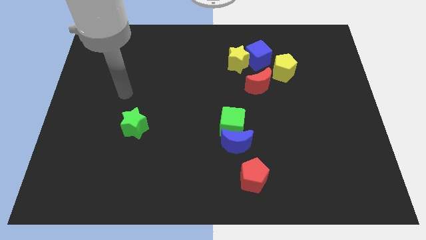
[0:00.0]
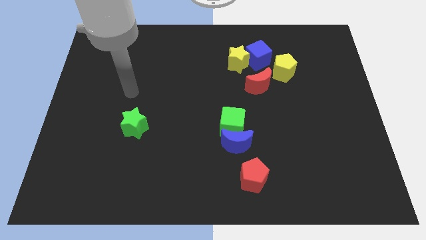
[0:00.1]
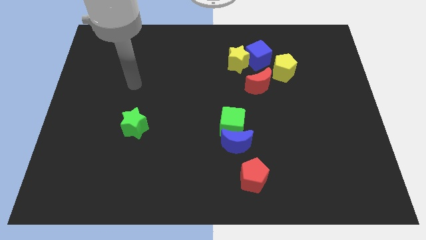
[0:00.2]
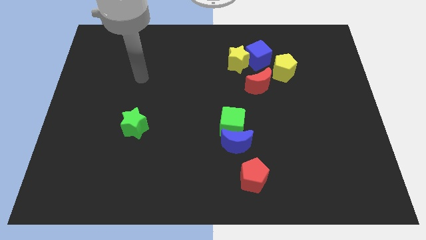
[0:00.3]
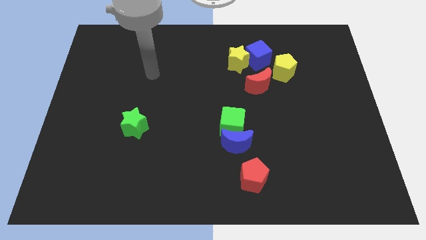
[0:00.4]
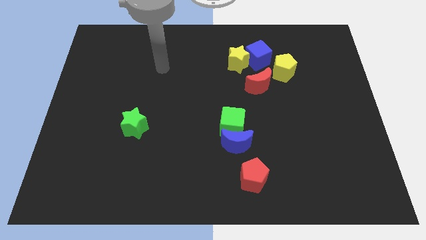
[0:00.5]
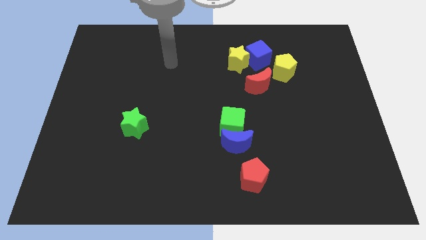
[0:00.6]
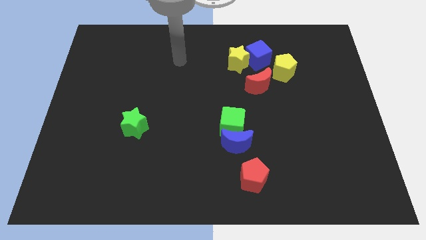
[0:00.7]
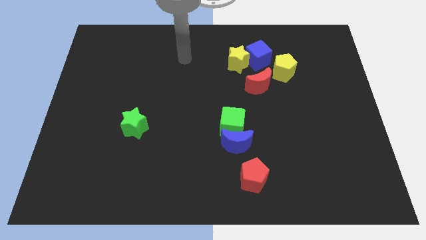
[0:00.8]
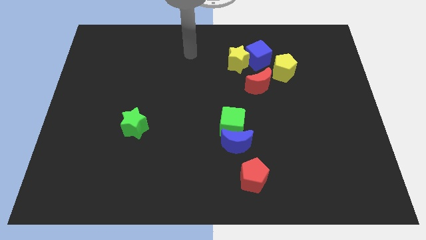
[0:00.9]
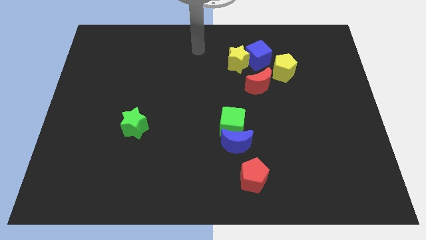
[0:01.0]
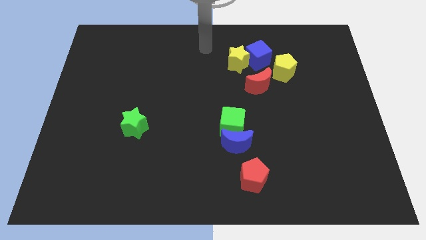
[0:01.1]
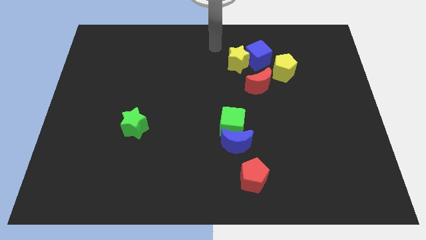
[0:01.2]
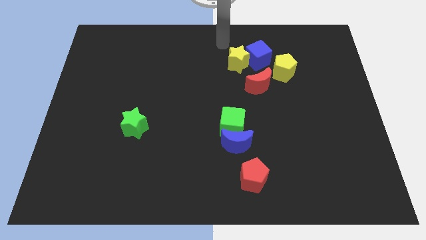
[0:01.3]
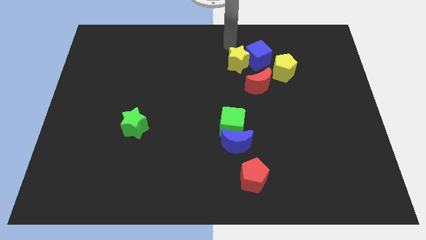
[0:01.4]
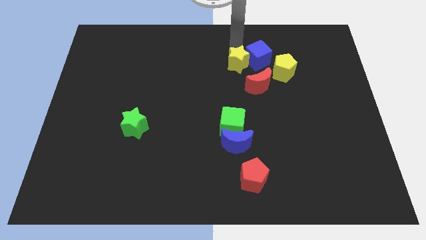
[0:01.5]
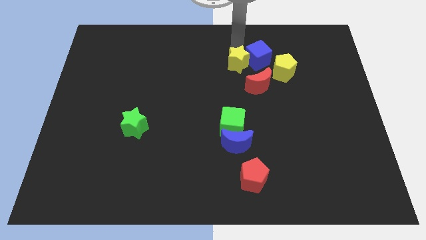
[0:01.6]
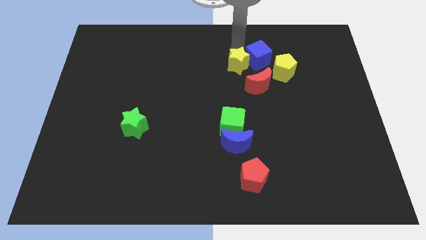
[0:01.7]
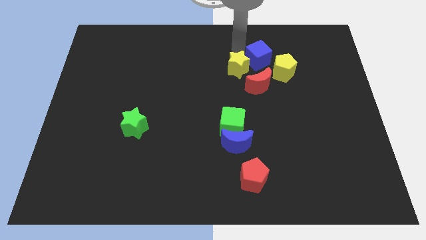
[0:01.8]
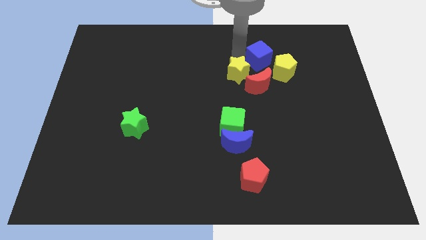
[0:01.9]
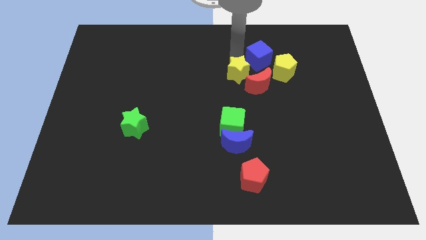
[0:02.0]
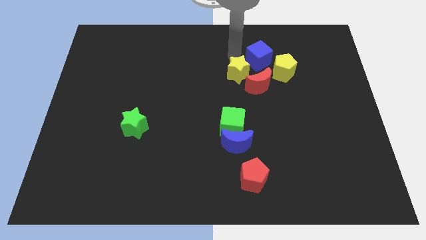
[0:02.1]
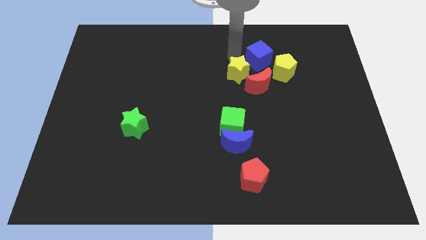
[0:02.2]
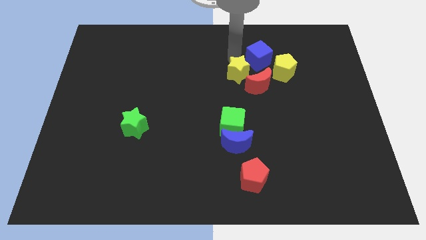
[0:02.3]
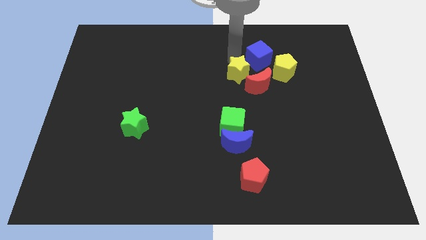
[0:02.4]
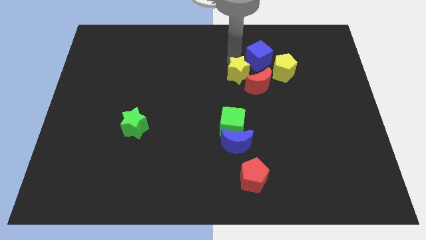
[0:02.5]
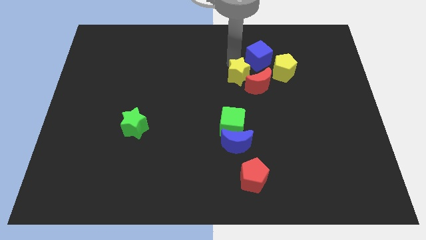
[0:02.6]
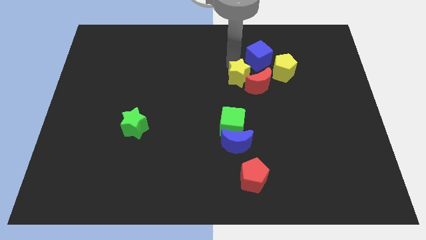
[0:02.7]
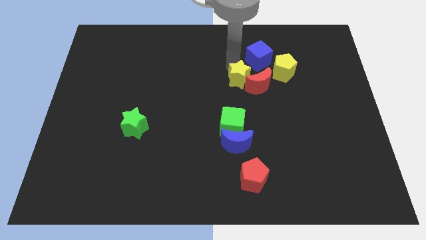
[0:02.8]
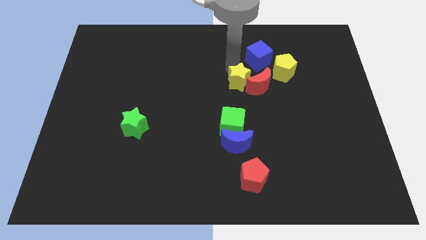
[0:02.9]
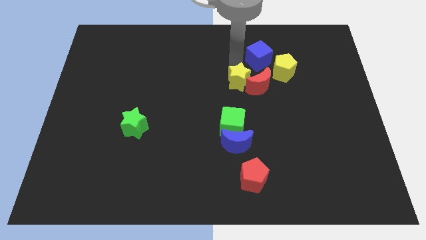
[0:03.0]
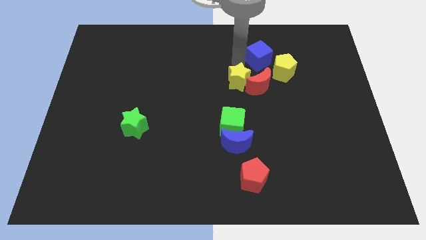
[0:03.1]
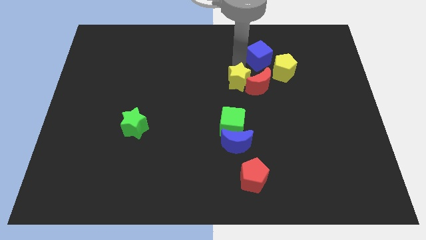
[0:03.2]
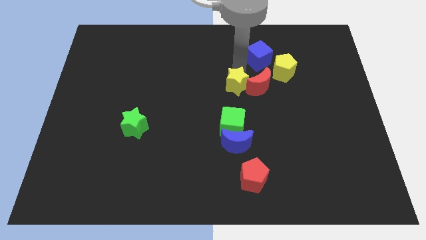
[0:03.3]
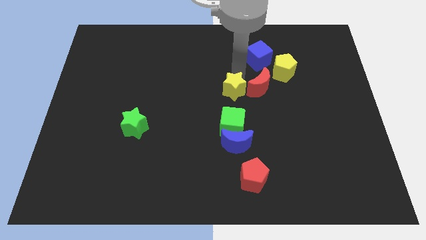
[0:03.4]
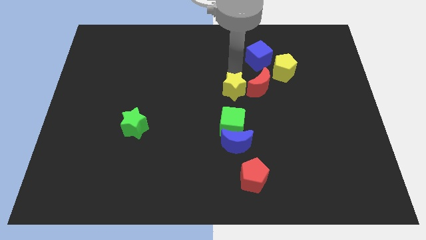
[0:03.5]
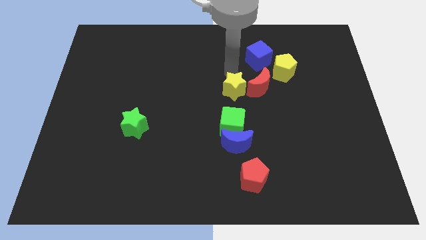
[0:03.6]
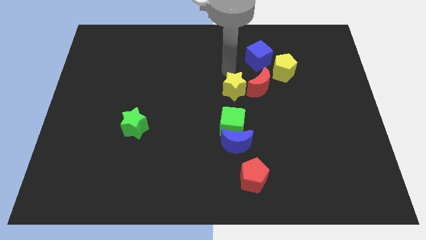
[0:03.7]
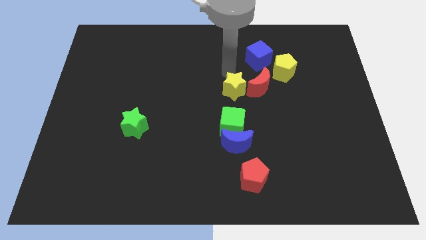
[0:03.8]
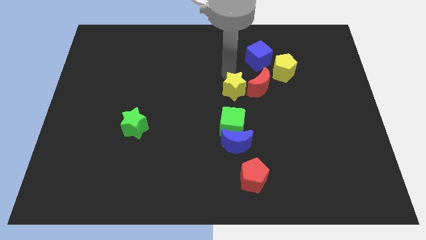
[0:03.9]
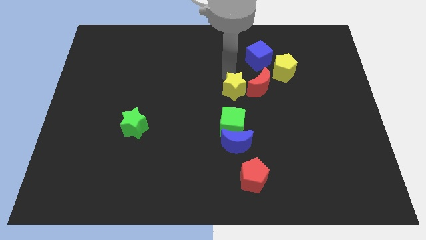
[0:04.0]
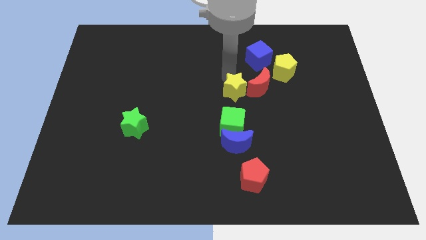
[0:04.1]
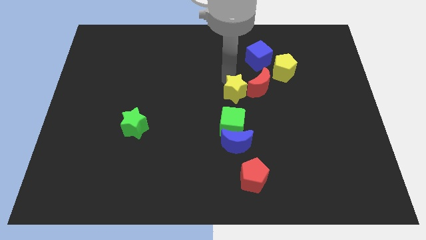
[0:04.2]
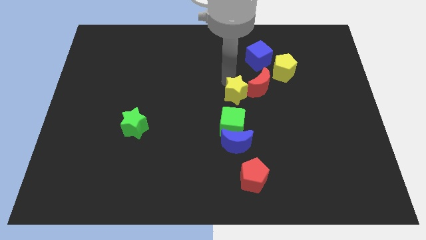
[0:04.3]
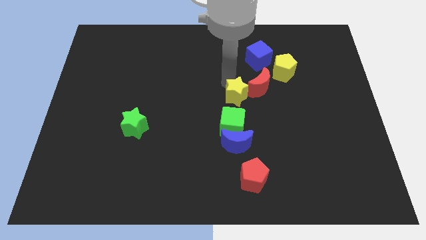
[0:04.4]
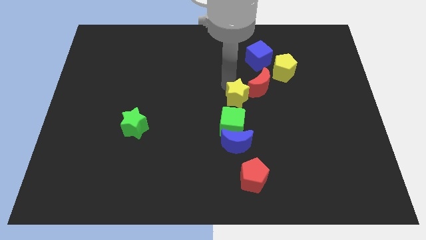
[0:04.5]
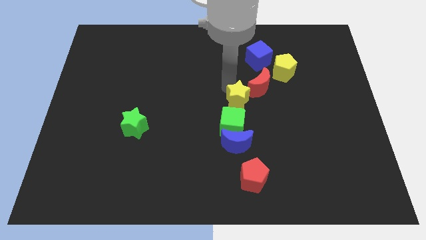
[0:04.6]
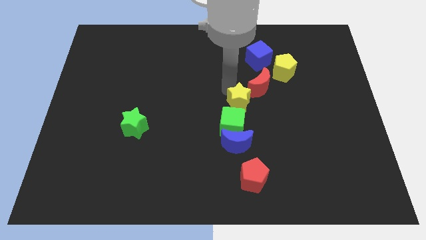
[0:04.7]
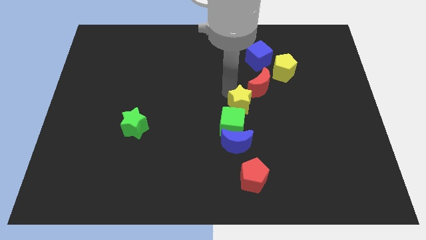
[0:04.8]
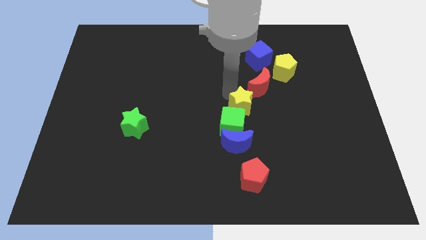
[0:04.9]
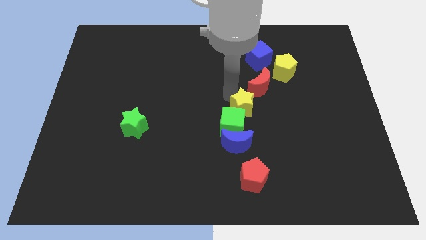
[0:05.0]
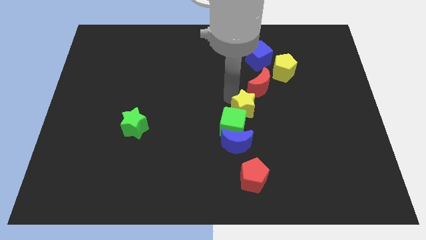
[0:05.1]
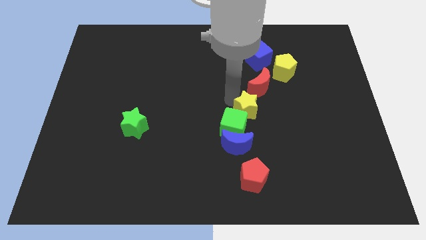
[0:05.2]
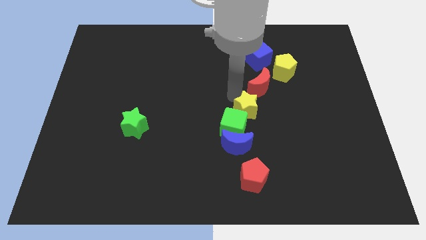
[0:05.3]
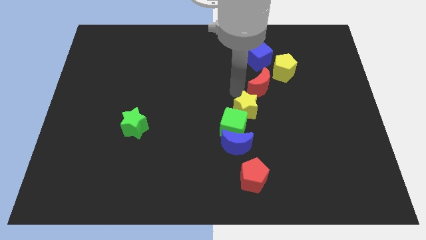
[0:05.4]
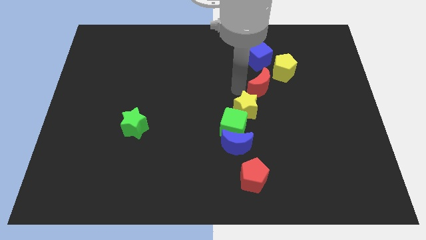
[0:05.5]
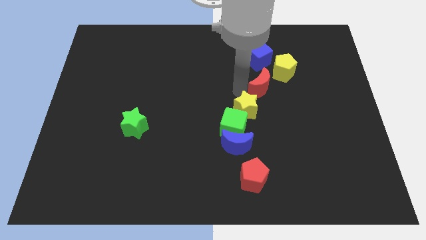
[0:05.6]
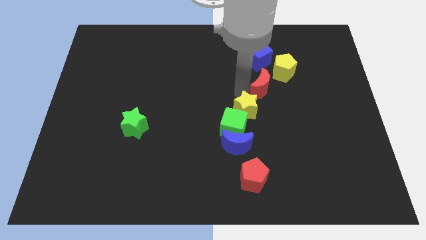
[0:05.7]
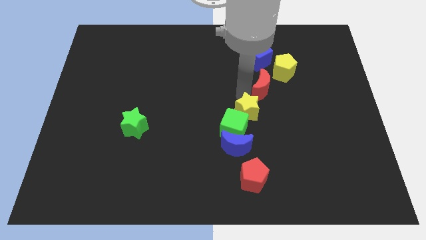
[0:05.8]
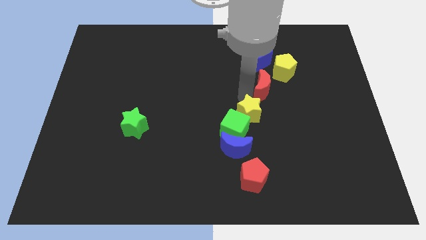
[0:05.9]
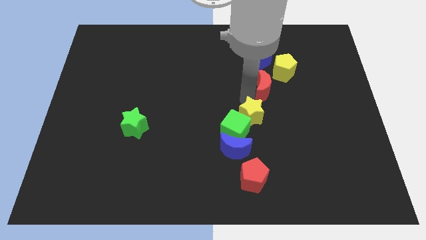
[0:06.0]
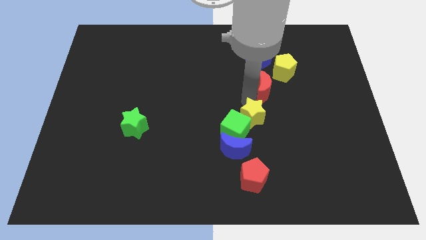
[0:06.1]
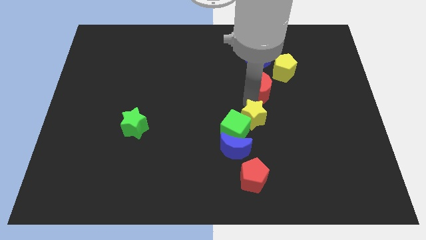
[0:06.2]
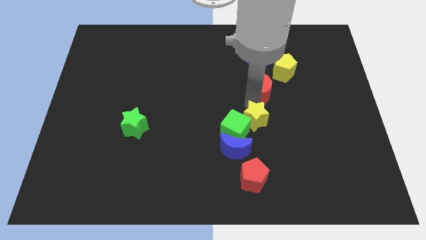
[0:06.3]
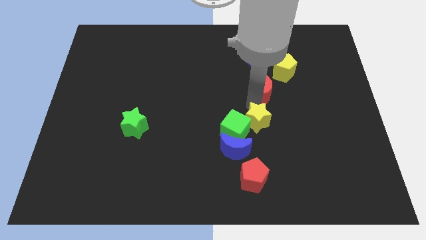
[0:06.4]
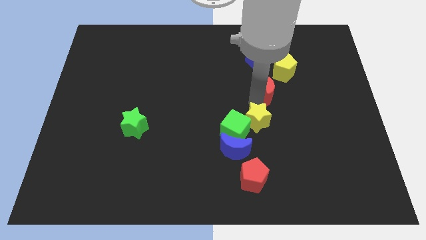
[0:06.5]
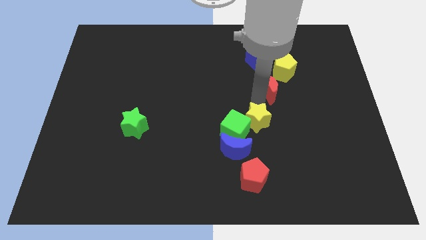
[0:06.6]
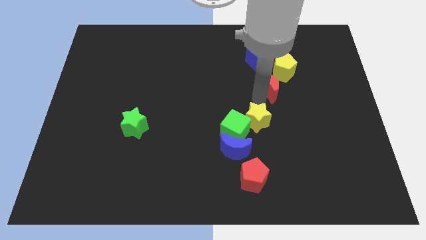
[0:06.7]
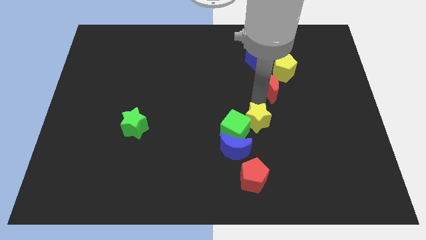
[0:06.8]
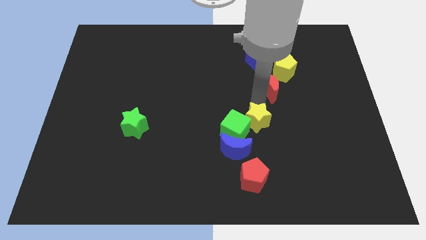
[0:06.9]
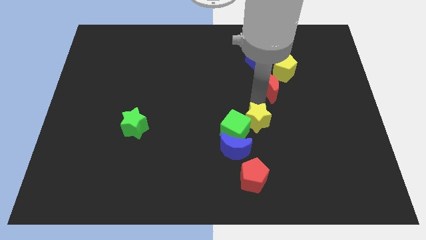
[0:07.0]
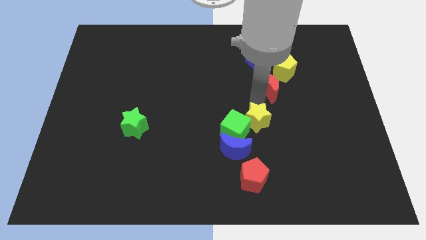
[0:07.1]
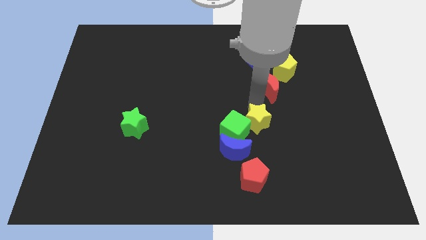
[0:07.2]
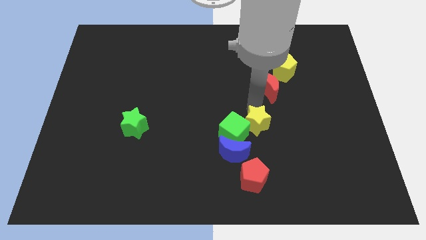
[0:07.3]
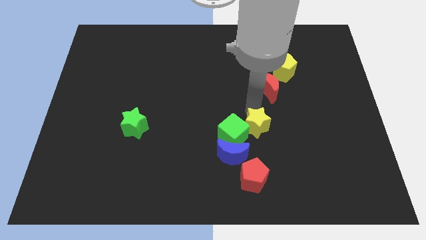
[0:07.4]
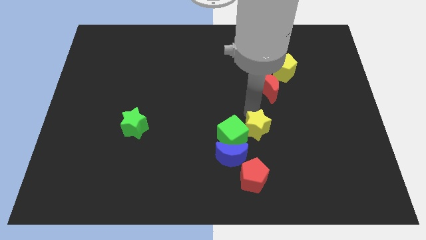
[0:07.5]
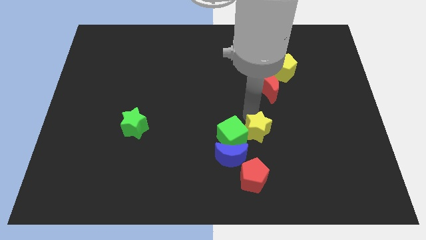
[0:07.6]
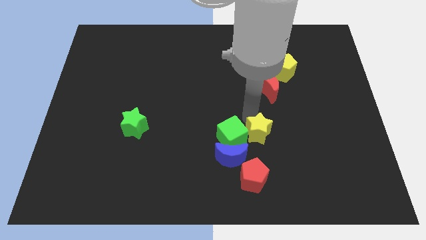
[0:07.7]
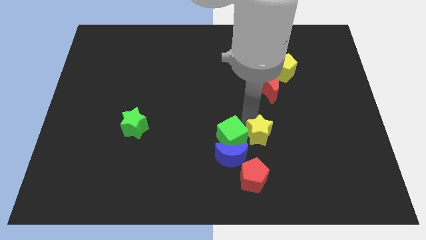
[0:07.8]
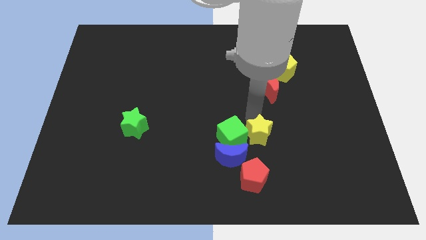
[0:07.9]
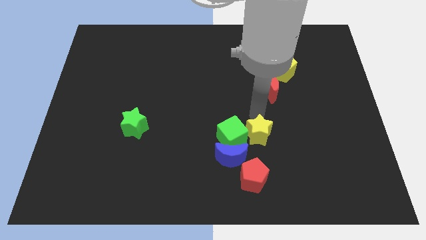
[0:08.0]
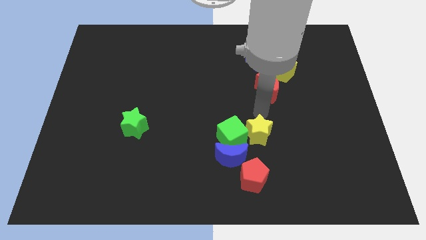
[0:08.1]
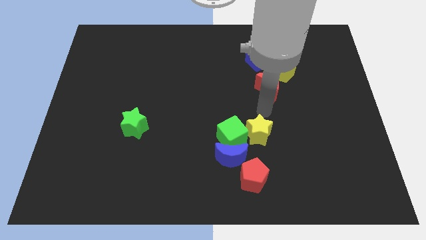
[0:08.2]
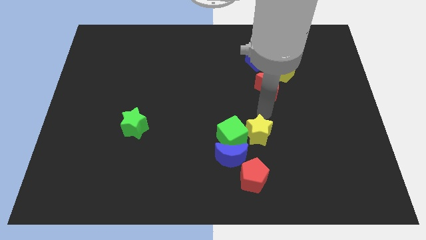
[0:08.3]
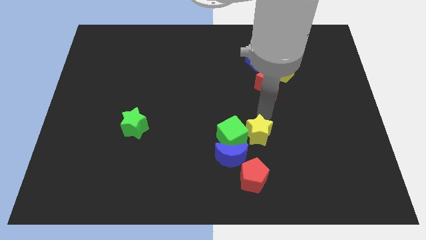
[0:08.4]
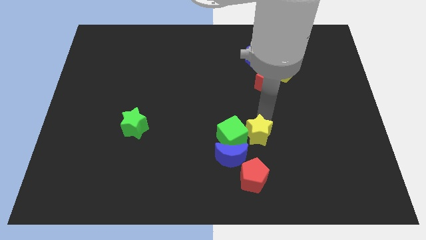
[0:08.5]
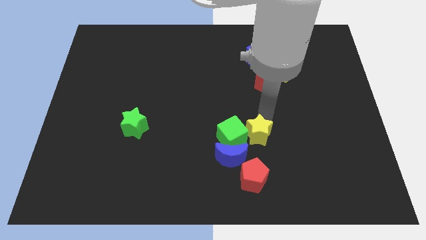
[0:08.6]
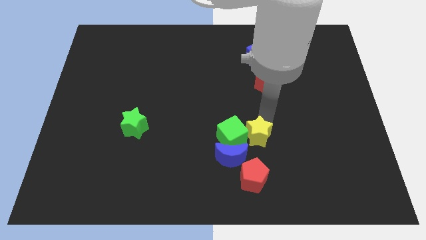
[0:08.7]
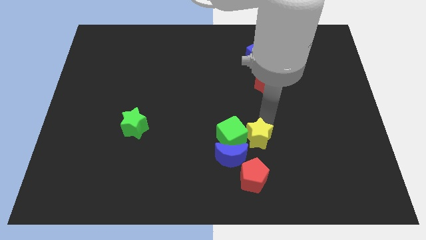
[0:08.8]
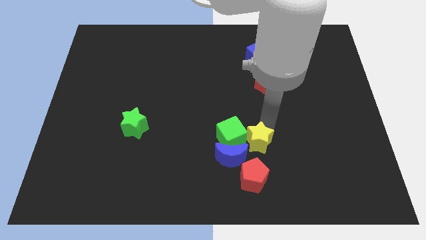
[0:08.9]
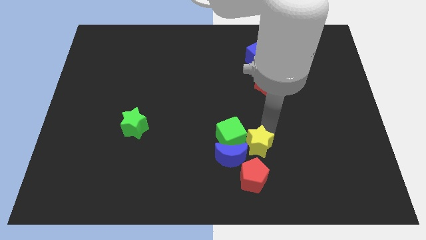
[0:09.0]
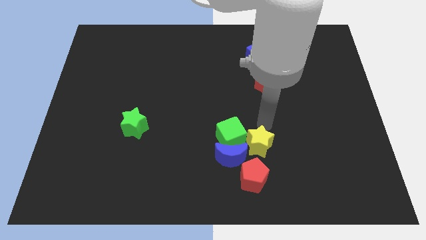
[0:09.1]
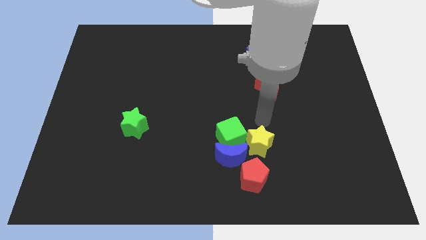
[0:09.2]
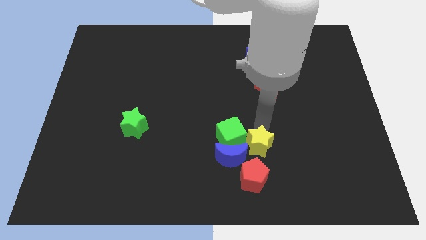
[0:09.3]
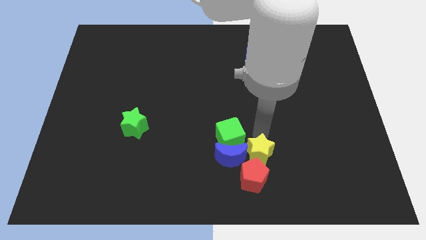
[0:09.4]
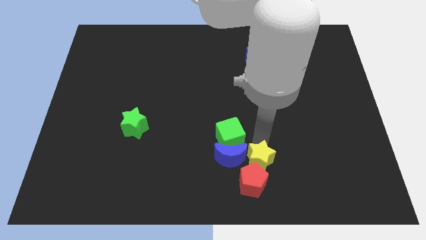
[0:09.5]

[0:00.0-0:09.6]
move the yellow star next to the red pentagon
